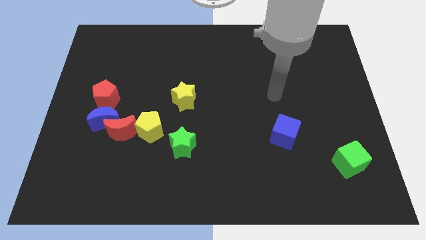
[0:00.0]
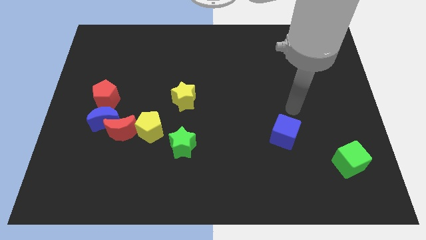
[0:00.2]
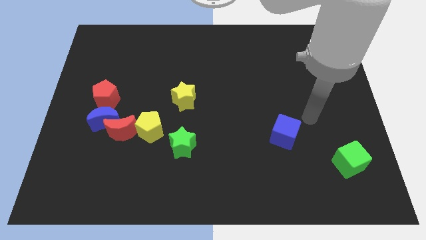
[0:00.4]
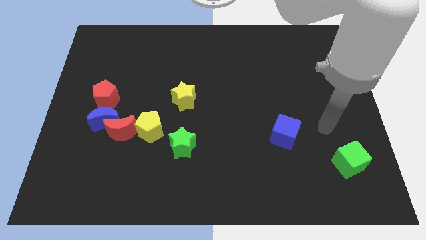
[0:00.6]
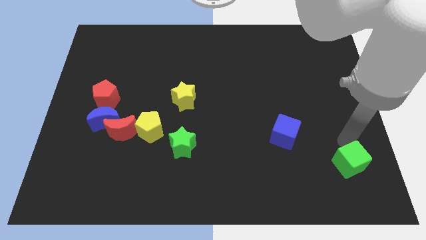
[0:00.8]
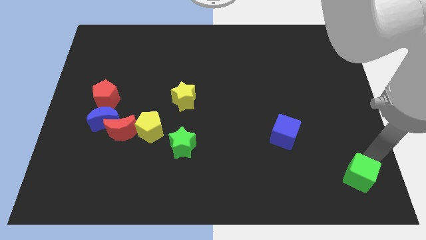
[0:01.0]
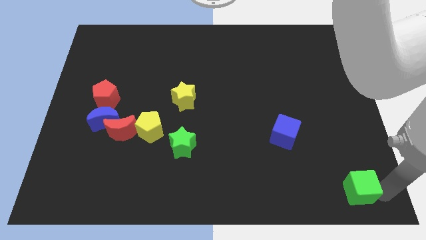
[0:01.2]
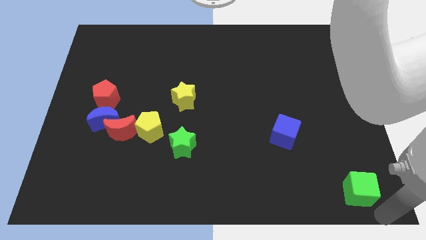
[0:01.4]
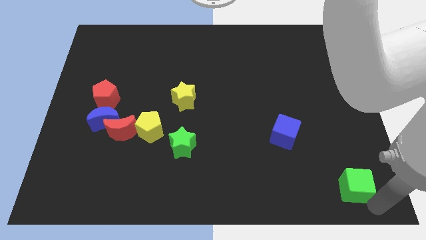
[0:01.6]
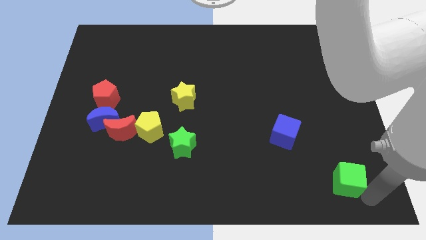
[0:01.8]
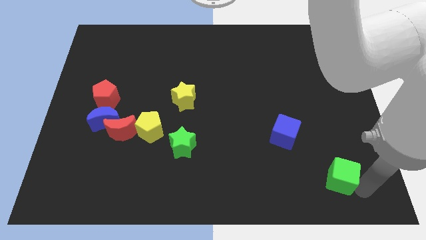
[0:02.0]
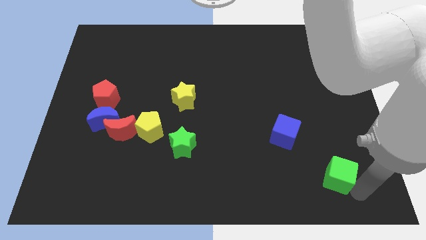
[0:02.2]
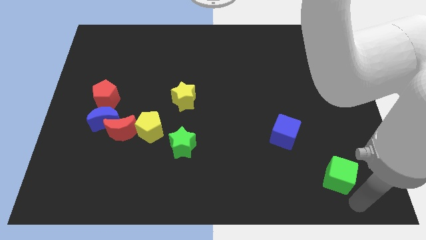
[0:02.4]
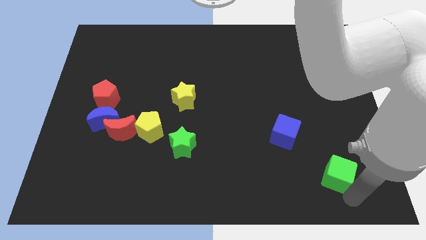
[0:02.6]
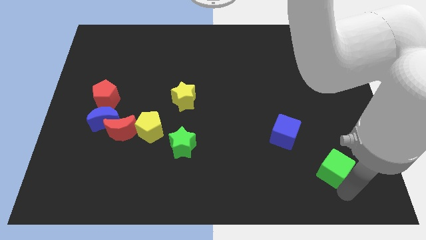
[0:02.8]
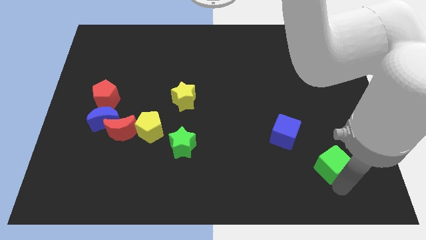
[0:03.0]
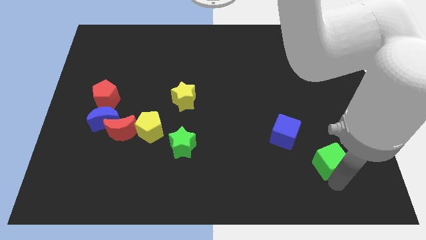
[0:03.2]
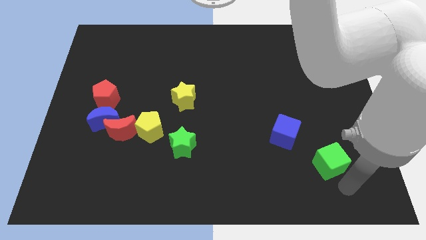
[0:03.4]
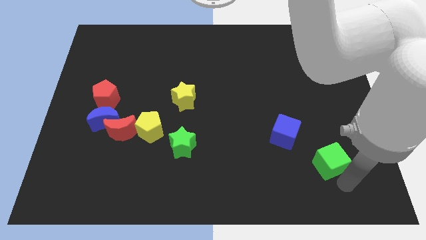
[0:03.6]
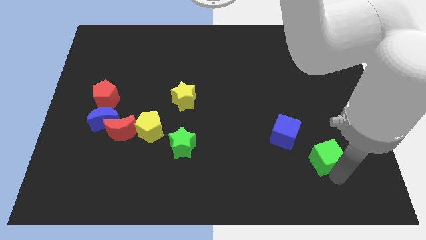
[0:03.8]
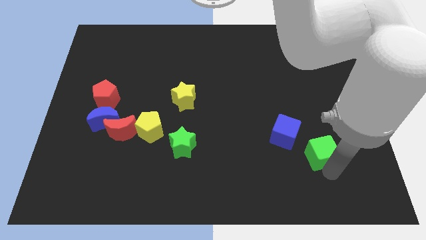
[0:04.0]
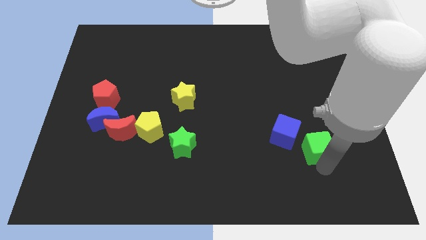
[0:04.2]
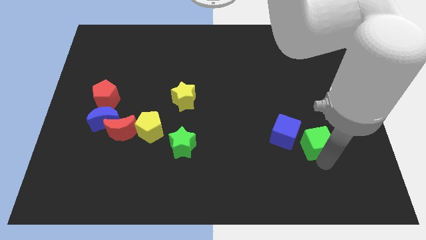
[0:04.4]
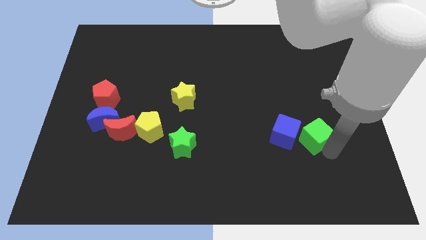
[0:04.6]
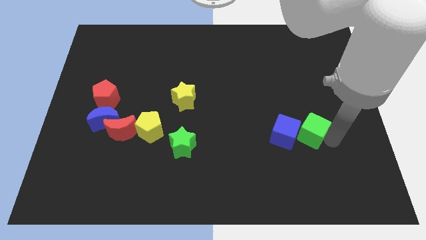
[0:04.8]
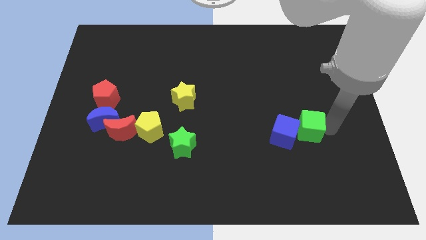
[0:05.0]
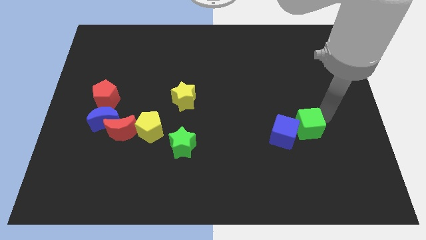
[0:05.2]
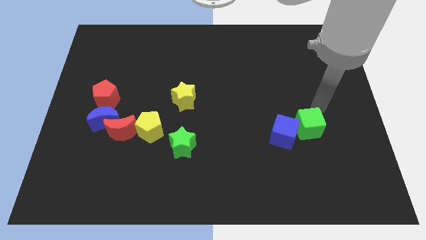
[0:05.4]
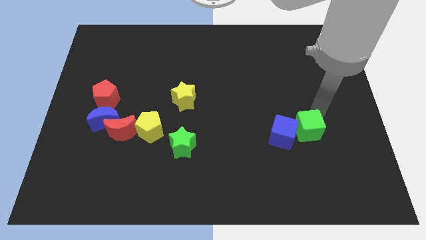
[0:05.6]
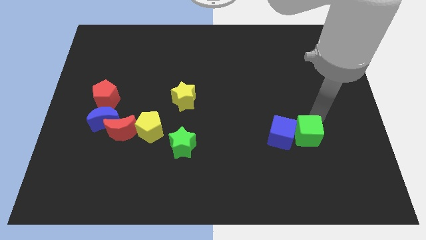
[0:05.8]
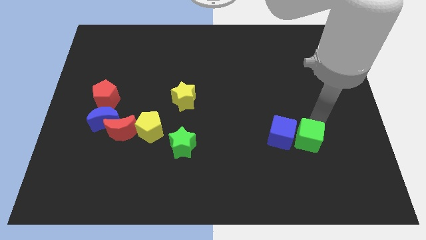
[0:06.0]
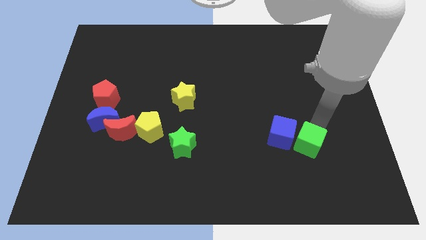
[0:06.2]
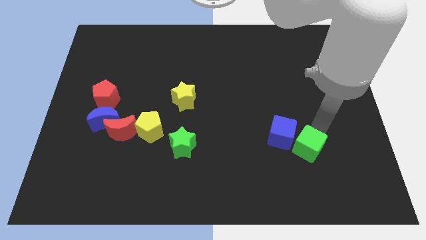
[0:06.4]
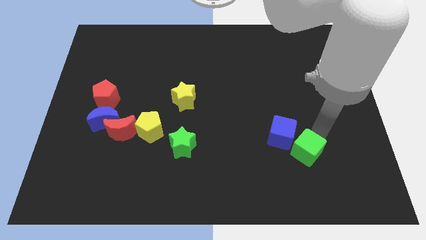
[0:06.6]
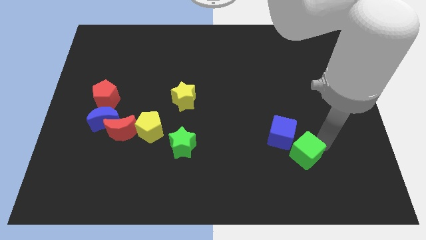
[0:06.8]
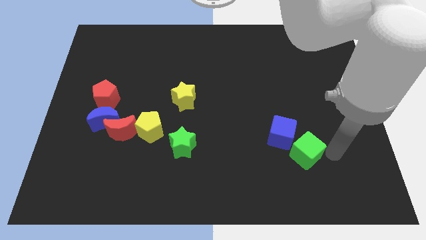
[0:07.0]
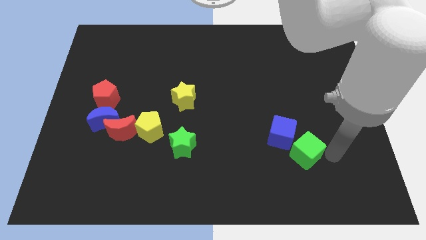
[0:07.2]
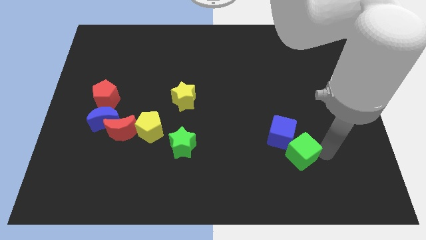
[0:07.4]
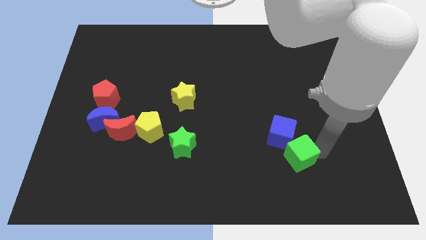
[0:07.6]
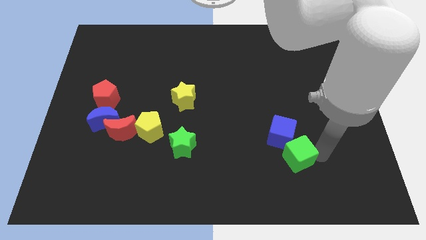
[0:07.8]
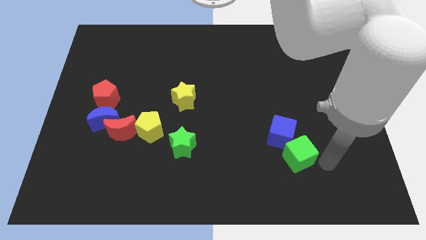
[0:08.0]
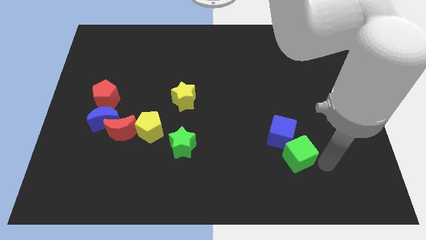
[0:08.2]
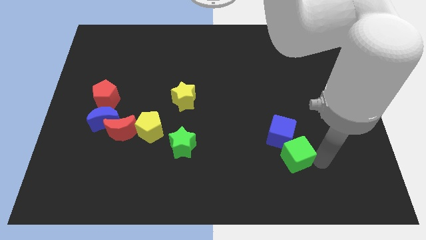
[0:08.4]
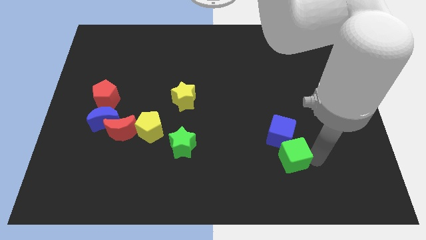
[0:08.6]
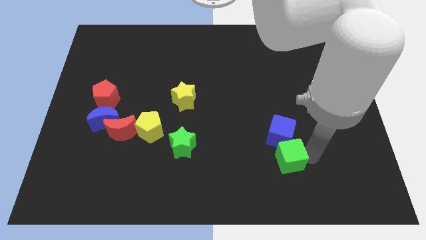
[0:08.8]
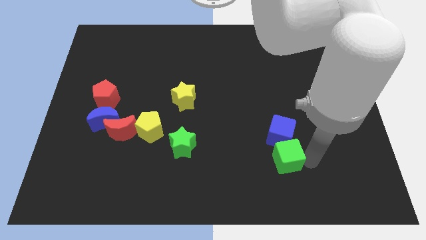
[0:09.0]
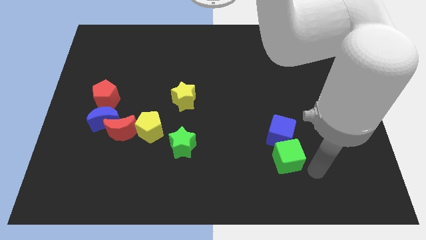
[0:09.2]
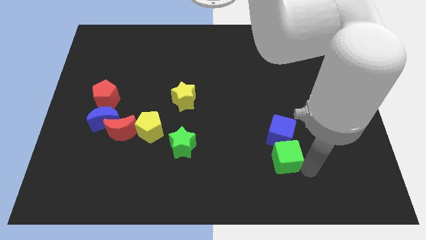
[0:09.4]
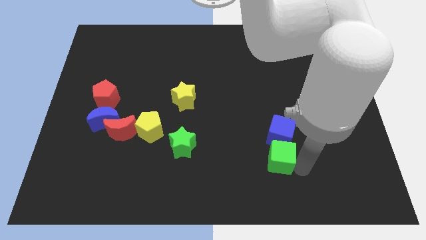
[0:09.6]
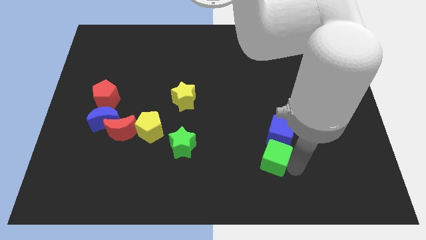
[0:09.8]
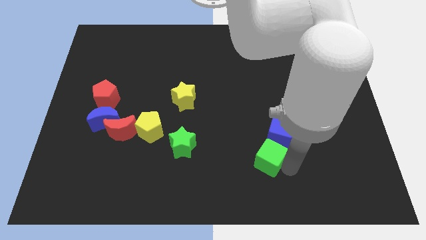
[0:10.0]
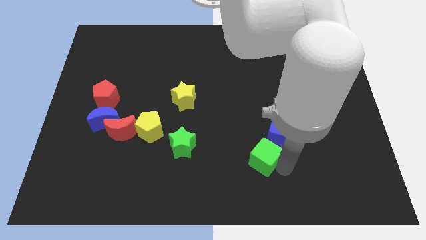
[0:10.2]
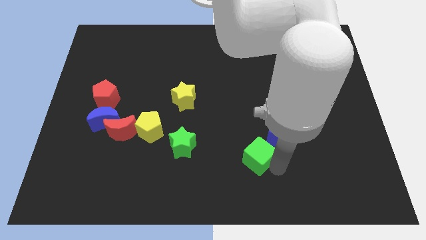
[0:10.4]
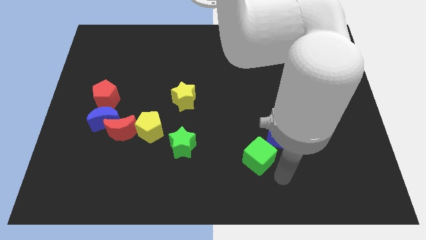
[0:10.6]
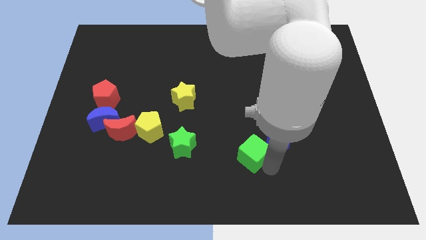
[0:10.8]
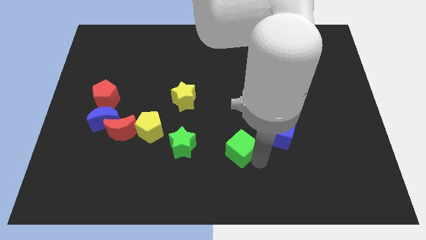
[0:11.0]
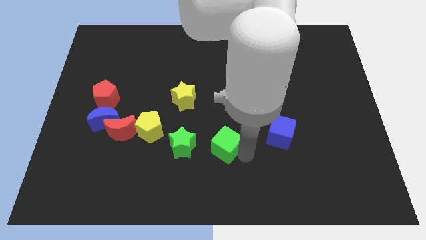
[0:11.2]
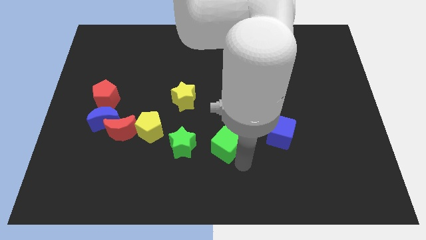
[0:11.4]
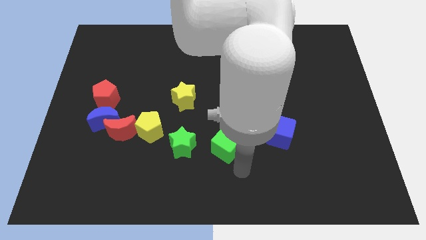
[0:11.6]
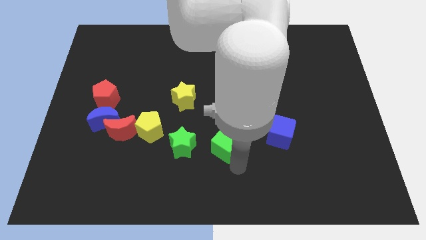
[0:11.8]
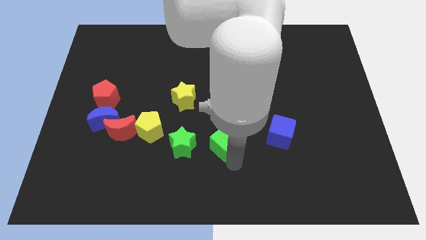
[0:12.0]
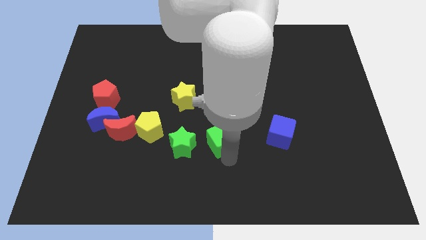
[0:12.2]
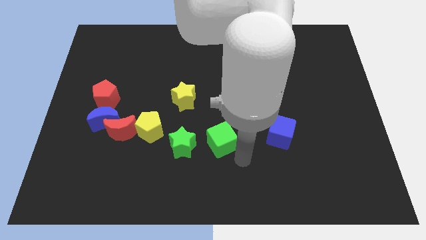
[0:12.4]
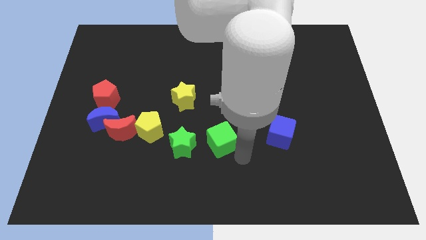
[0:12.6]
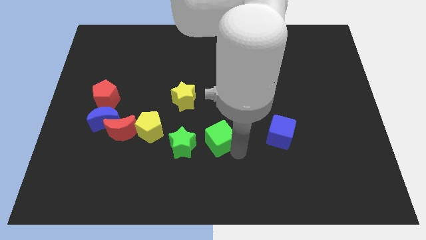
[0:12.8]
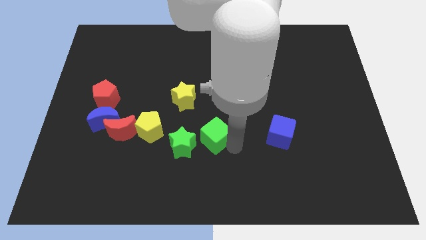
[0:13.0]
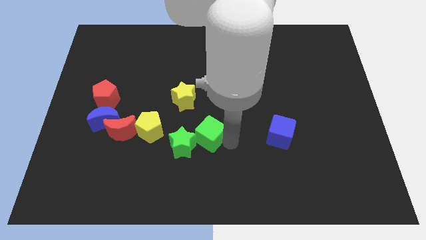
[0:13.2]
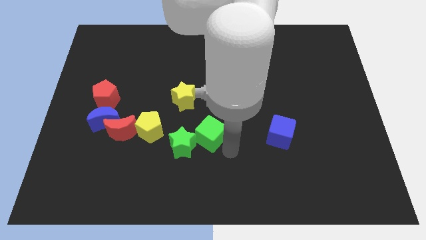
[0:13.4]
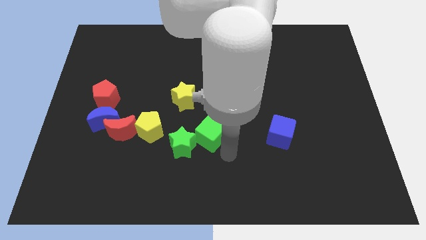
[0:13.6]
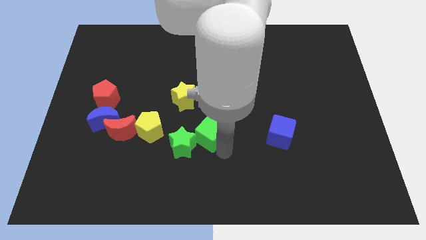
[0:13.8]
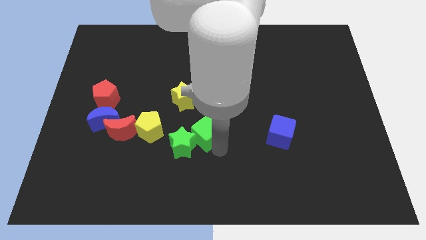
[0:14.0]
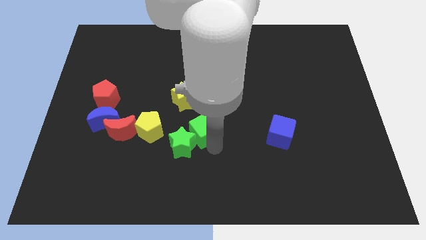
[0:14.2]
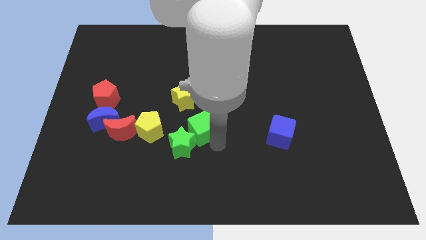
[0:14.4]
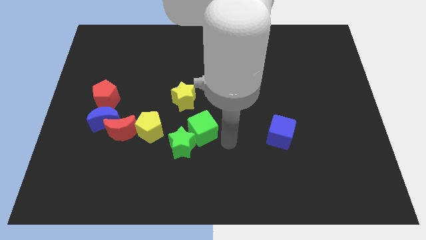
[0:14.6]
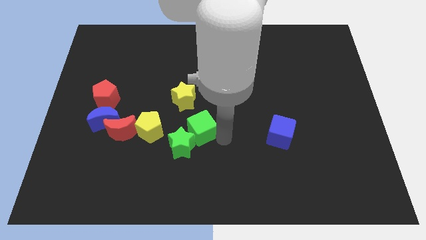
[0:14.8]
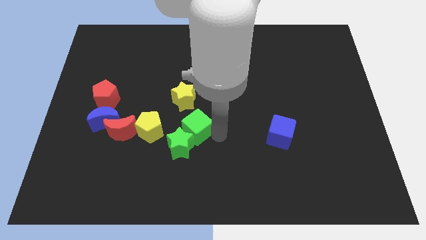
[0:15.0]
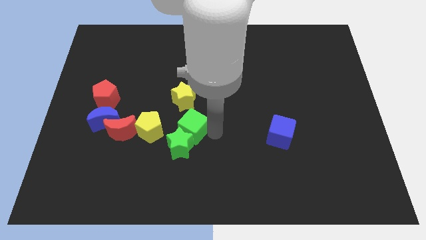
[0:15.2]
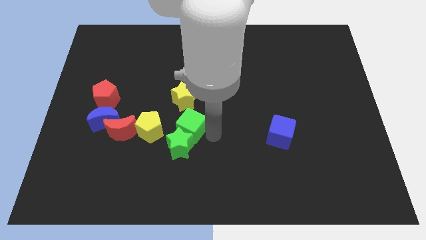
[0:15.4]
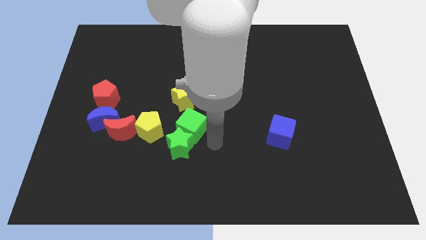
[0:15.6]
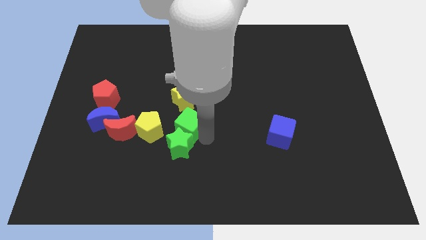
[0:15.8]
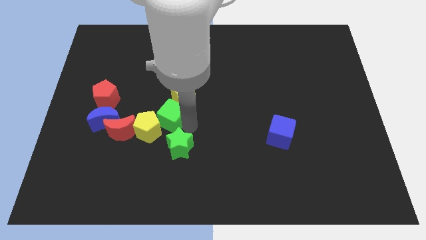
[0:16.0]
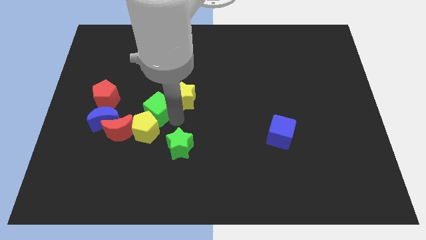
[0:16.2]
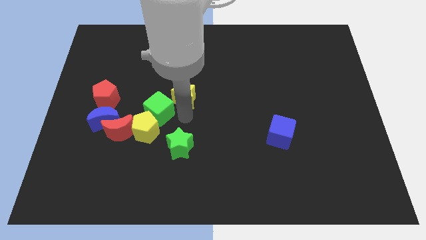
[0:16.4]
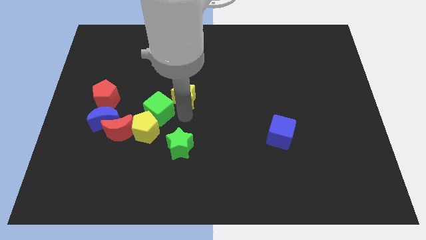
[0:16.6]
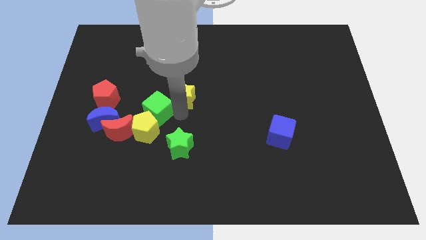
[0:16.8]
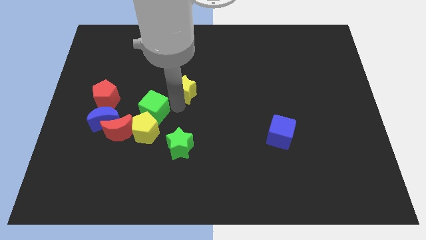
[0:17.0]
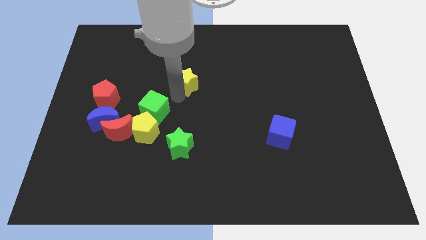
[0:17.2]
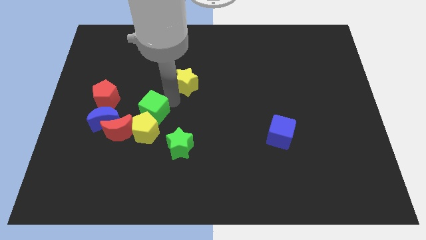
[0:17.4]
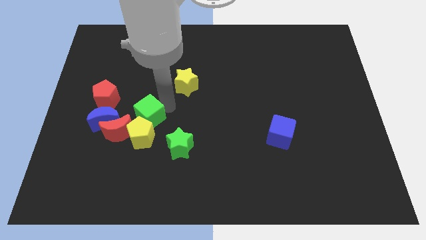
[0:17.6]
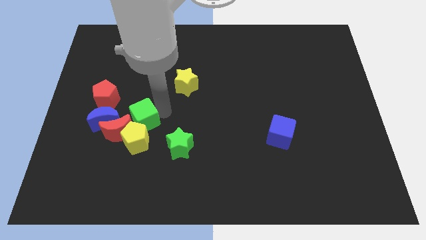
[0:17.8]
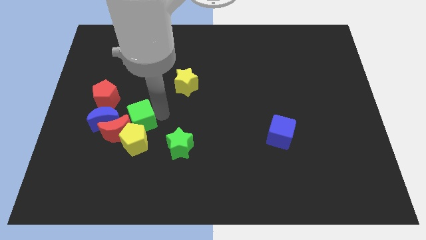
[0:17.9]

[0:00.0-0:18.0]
push the green cube towards the red moon
